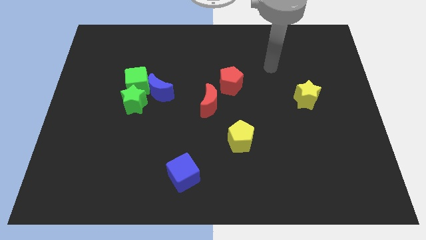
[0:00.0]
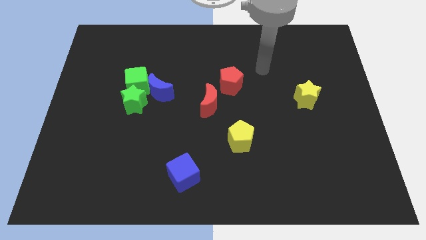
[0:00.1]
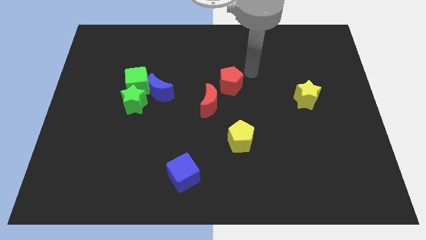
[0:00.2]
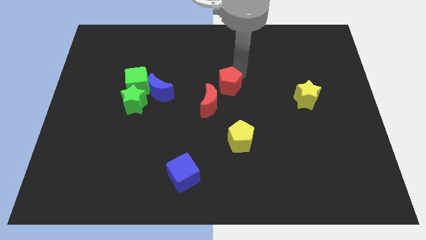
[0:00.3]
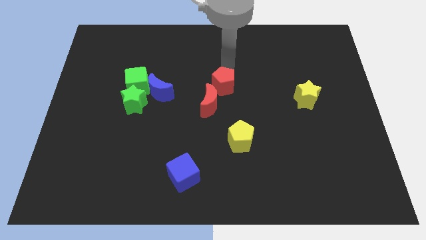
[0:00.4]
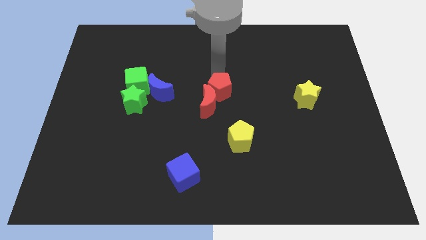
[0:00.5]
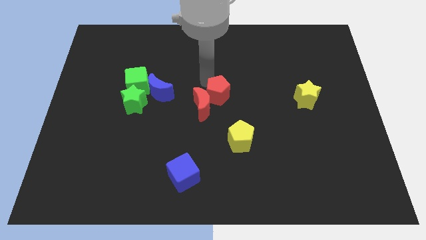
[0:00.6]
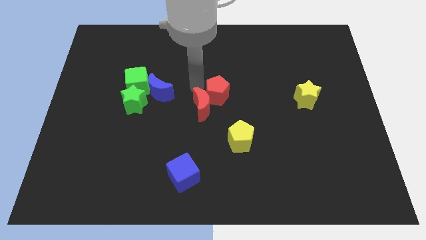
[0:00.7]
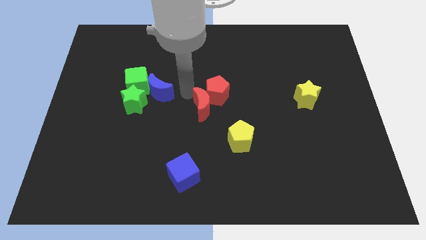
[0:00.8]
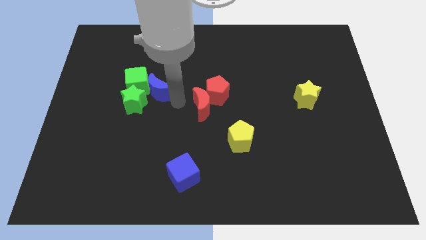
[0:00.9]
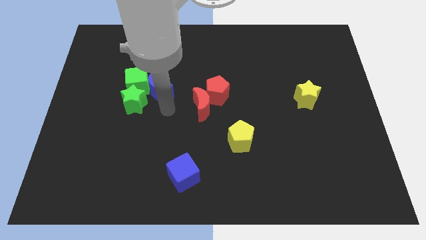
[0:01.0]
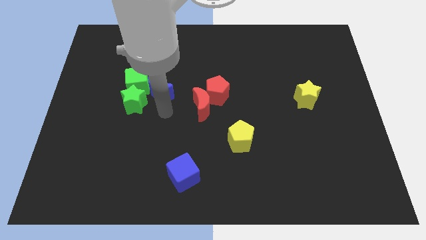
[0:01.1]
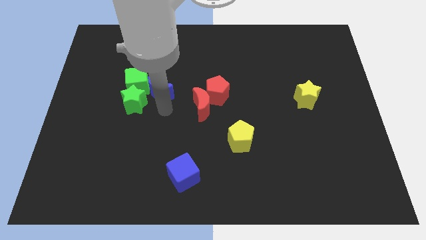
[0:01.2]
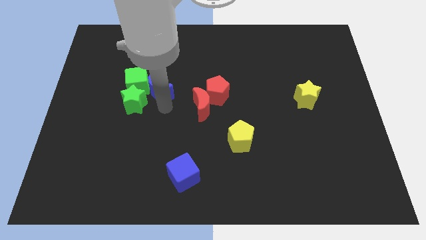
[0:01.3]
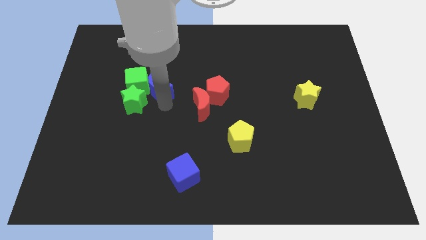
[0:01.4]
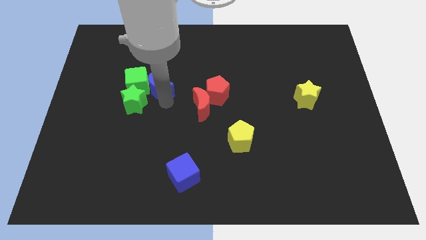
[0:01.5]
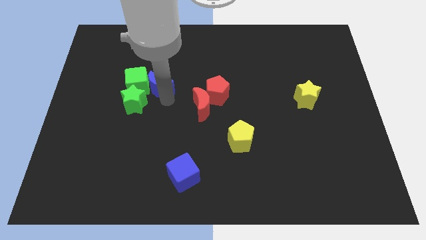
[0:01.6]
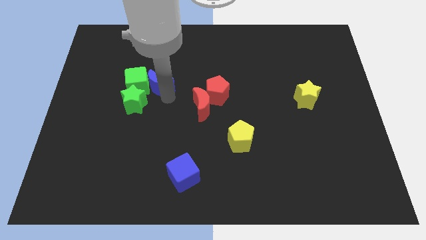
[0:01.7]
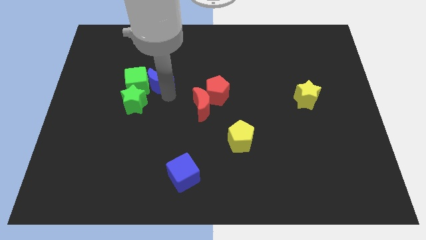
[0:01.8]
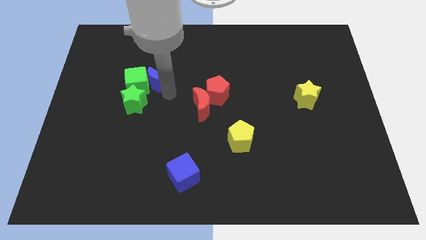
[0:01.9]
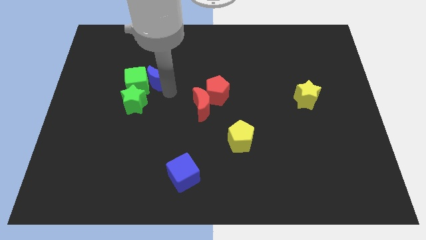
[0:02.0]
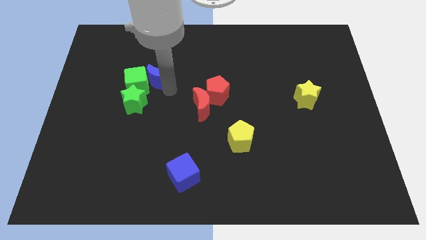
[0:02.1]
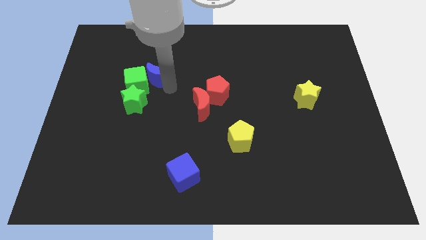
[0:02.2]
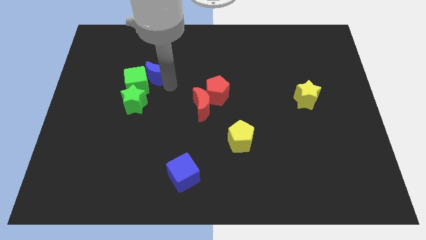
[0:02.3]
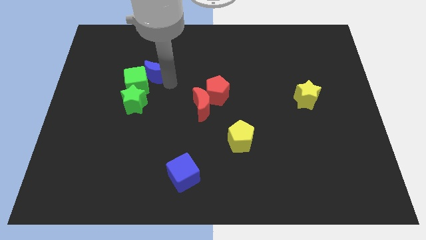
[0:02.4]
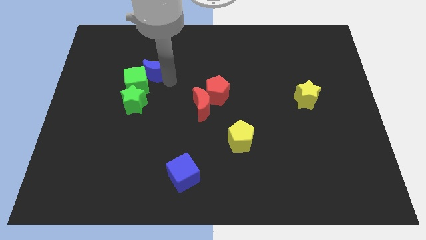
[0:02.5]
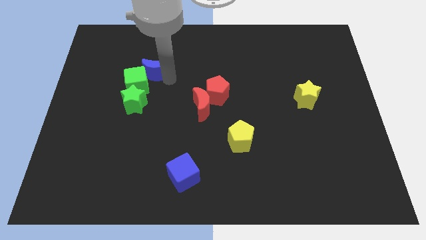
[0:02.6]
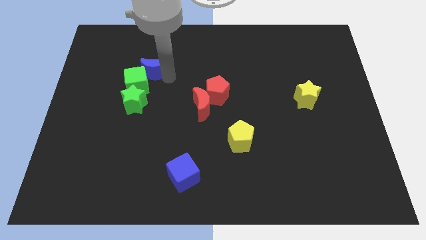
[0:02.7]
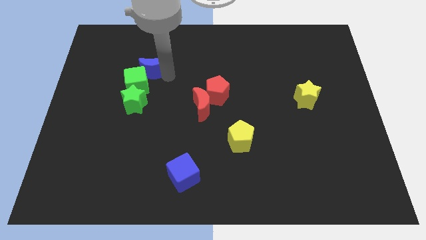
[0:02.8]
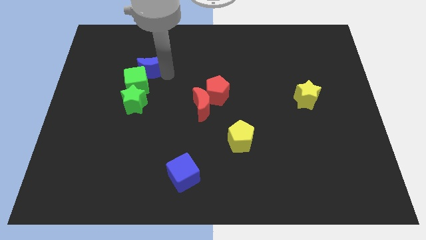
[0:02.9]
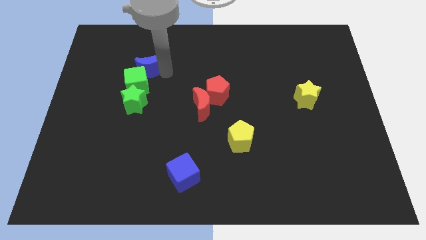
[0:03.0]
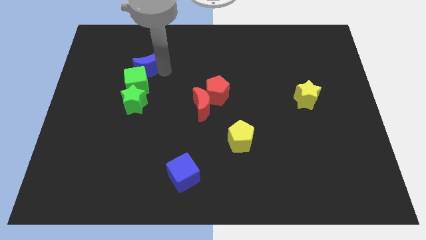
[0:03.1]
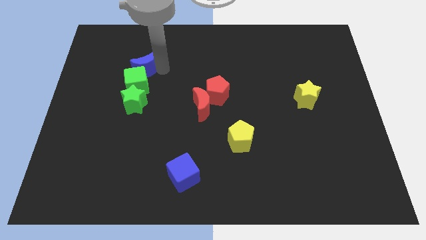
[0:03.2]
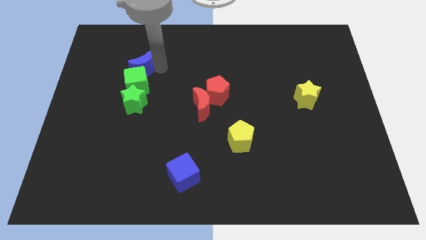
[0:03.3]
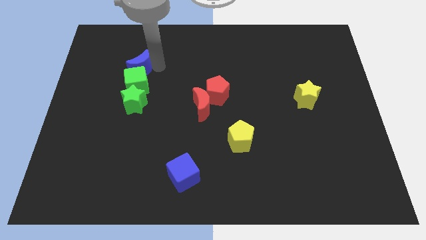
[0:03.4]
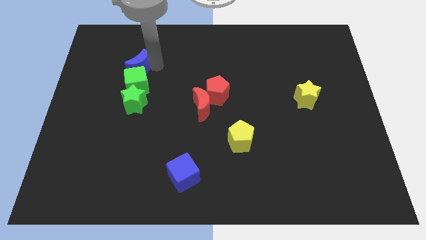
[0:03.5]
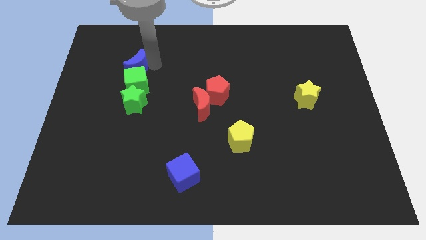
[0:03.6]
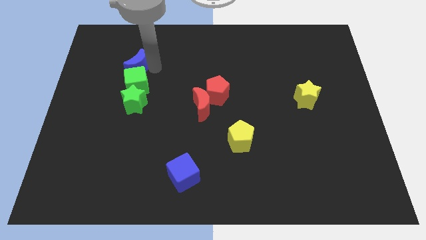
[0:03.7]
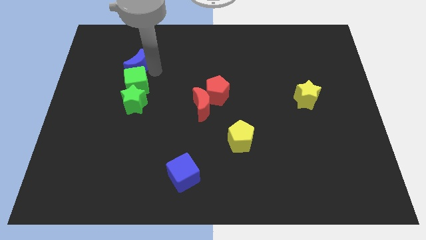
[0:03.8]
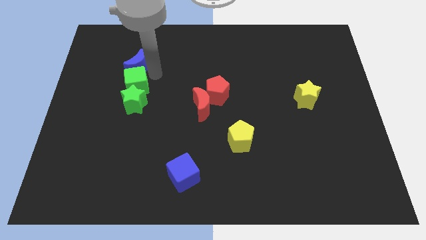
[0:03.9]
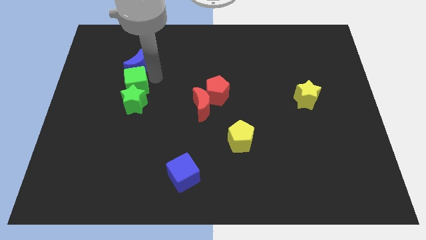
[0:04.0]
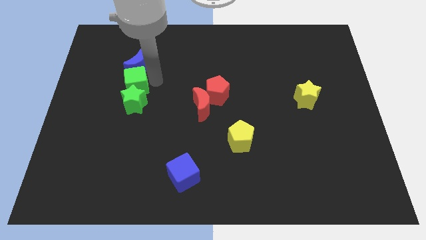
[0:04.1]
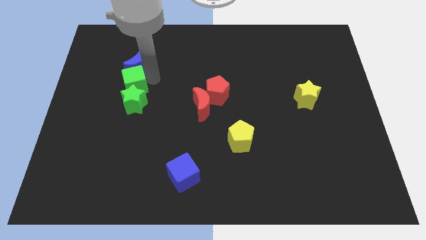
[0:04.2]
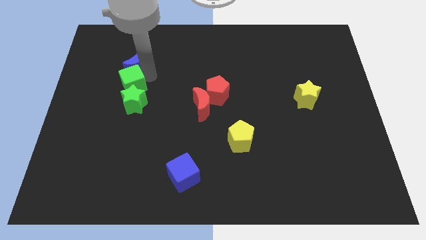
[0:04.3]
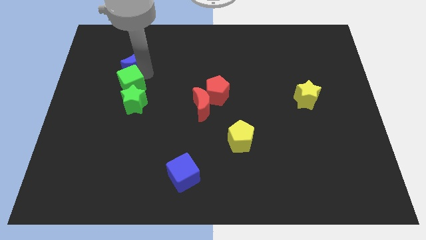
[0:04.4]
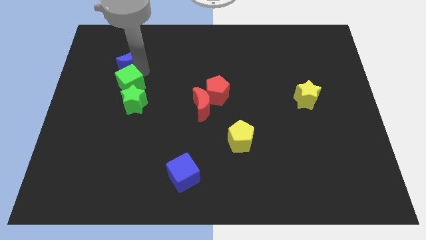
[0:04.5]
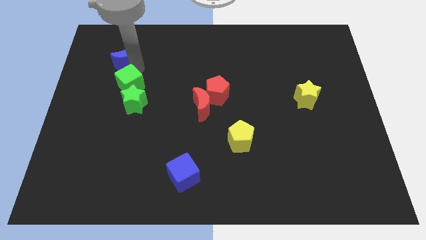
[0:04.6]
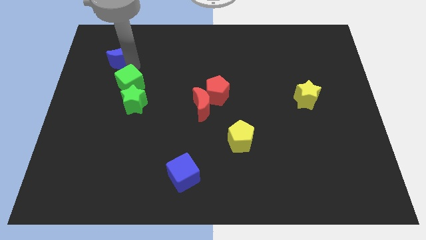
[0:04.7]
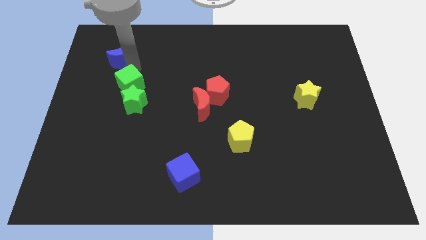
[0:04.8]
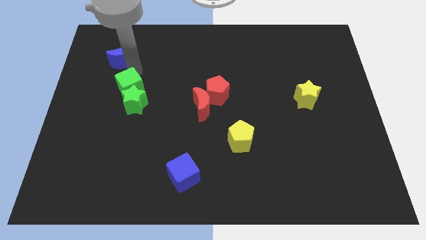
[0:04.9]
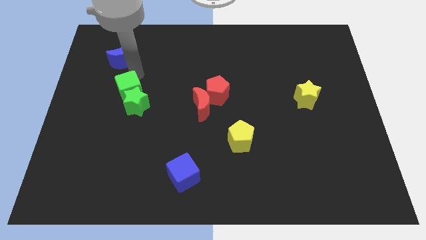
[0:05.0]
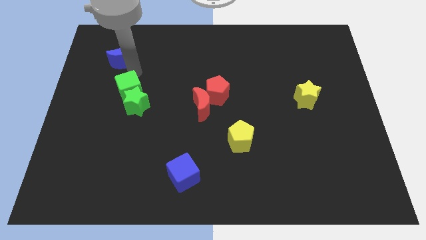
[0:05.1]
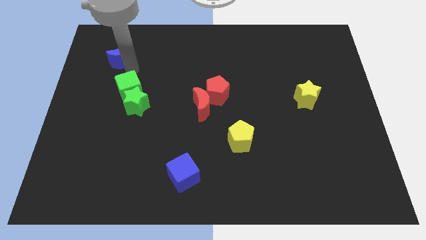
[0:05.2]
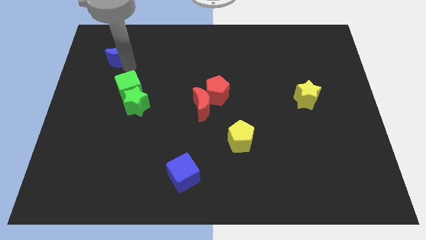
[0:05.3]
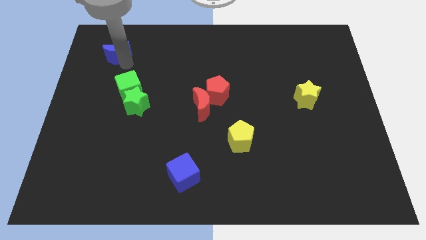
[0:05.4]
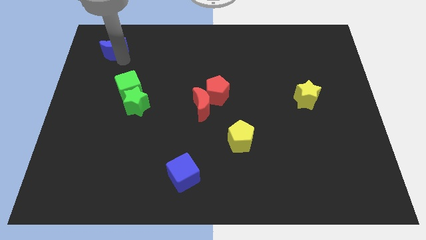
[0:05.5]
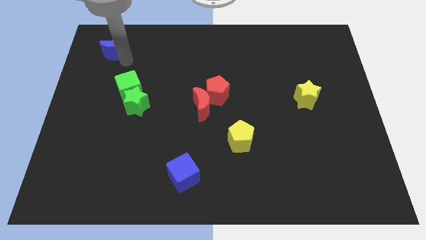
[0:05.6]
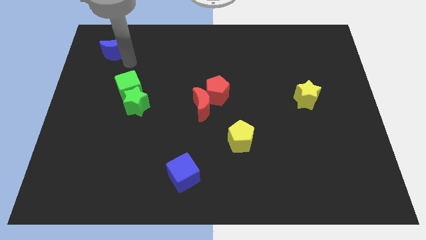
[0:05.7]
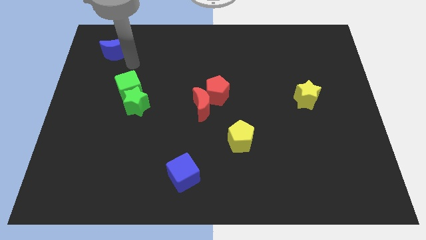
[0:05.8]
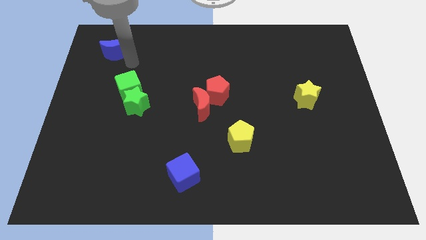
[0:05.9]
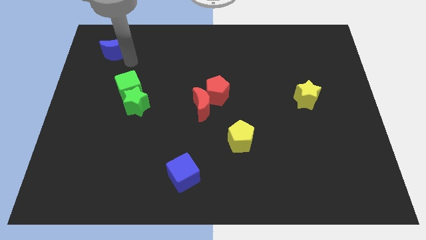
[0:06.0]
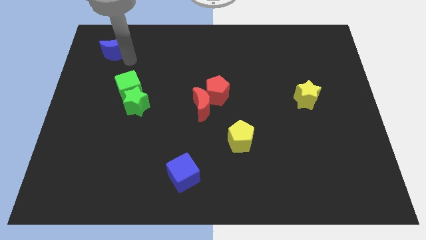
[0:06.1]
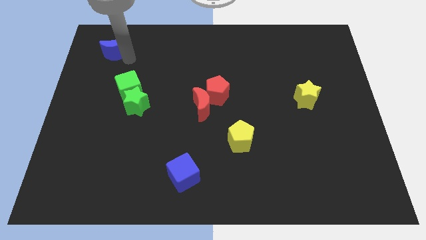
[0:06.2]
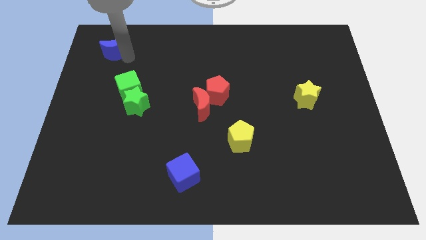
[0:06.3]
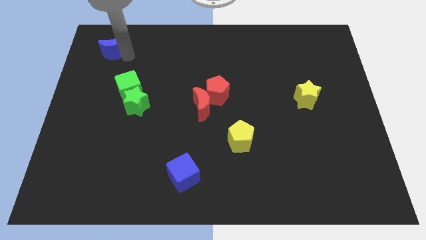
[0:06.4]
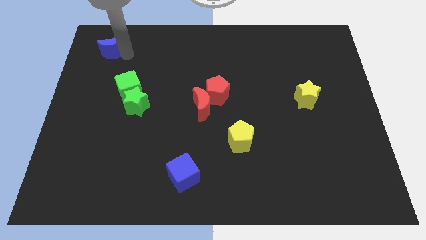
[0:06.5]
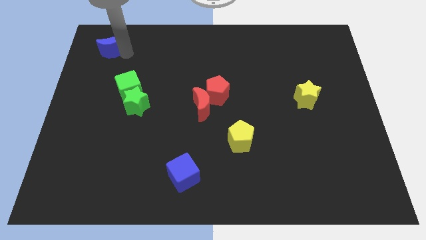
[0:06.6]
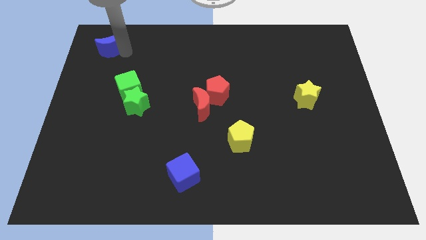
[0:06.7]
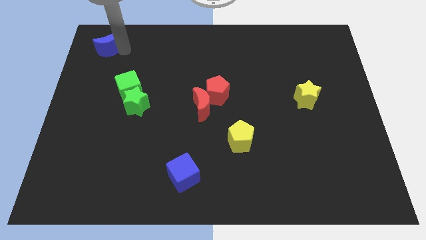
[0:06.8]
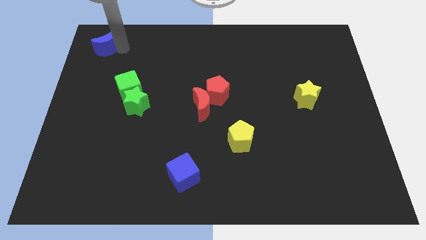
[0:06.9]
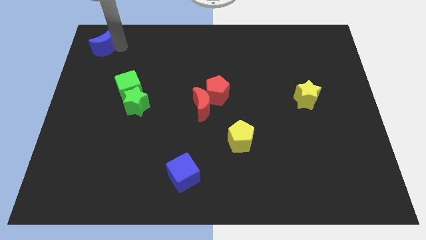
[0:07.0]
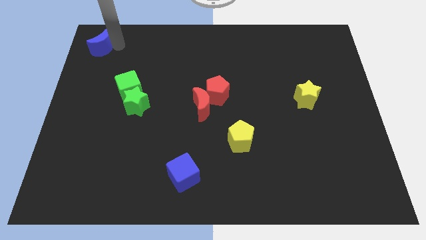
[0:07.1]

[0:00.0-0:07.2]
push the blue moon to the top left
